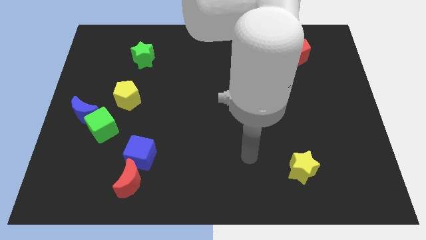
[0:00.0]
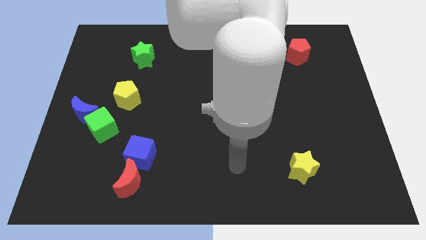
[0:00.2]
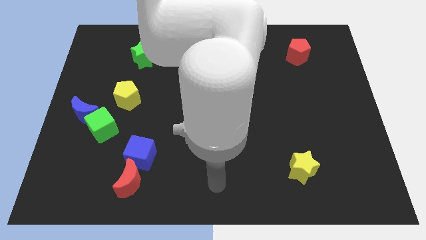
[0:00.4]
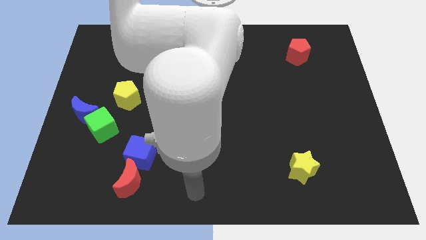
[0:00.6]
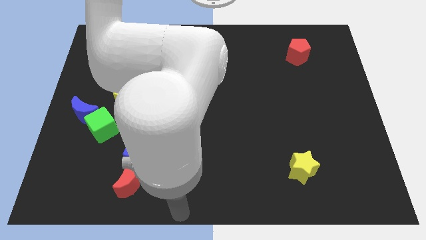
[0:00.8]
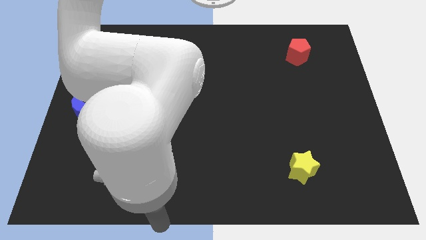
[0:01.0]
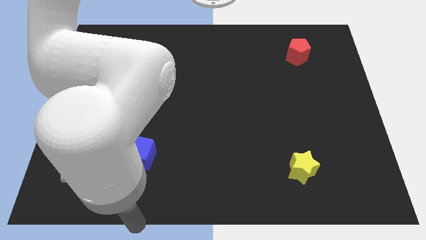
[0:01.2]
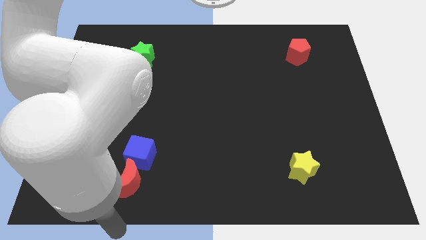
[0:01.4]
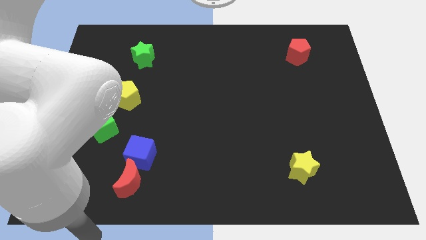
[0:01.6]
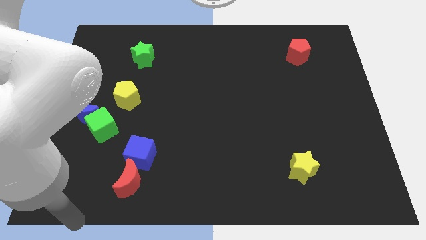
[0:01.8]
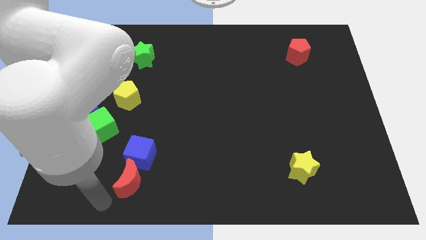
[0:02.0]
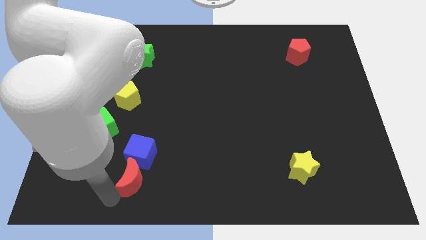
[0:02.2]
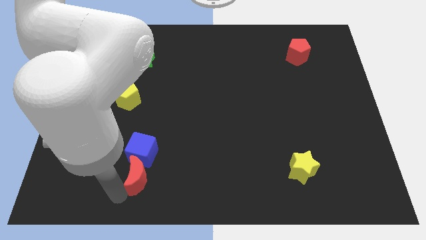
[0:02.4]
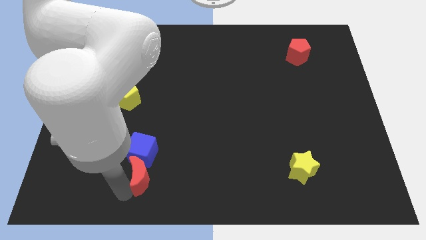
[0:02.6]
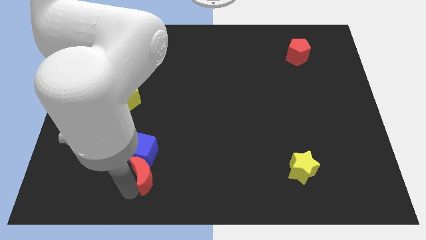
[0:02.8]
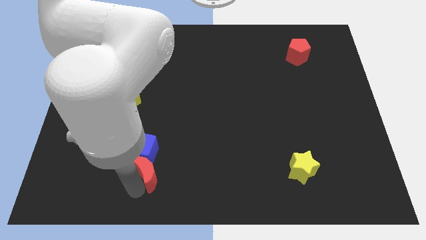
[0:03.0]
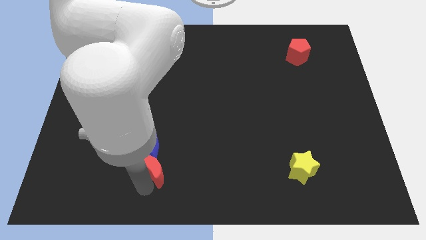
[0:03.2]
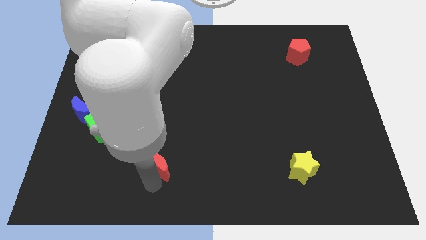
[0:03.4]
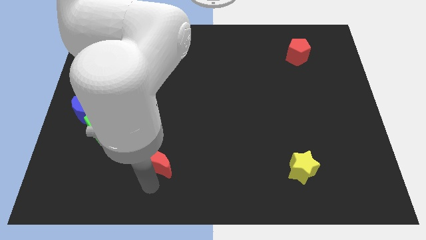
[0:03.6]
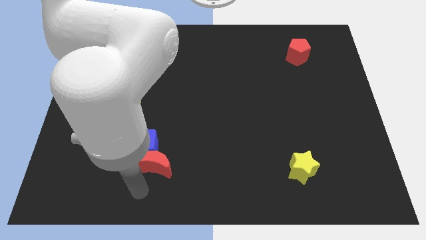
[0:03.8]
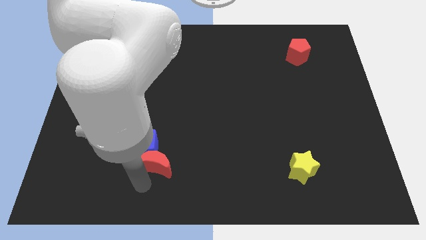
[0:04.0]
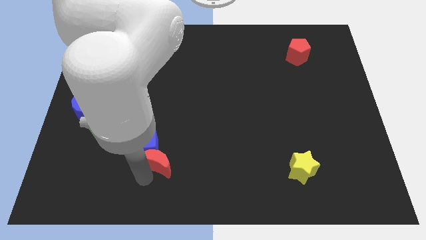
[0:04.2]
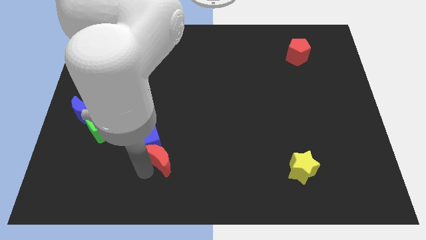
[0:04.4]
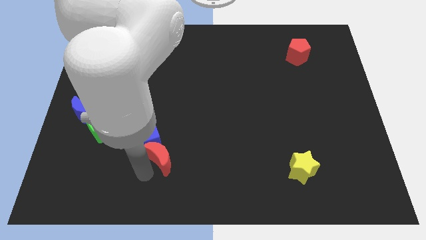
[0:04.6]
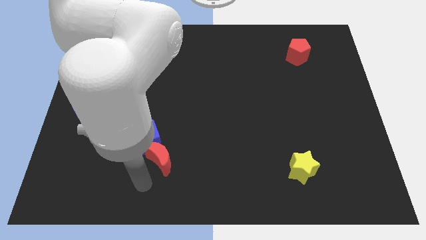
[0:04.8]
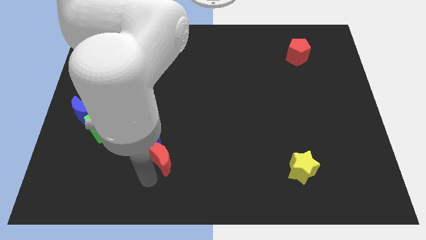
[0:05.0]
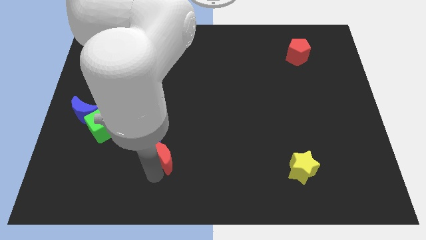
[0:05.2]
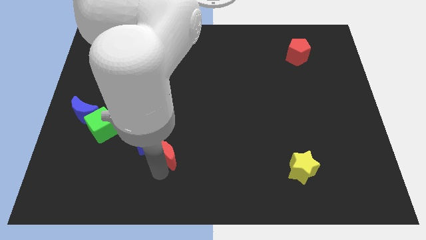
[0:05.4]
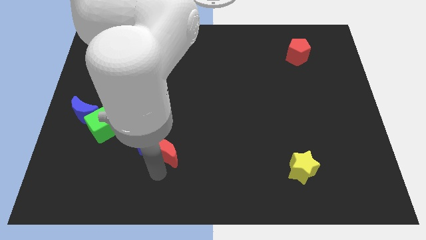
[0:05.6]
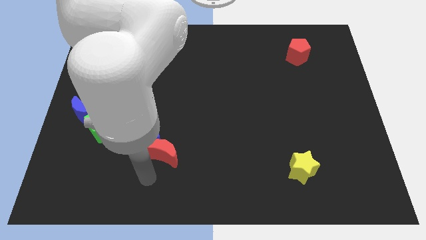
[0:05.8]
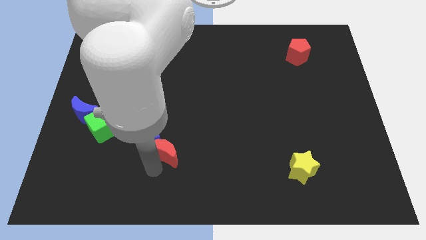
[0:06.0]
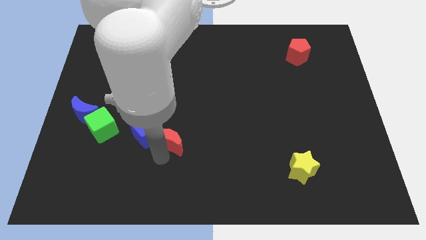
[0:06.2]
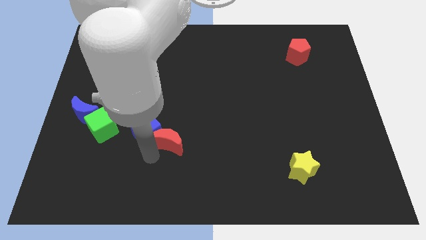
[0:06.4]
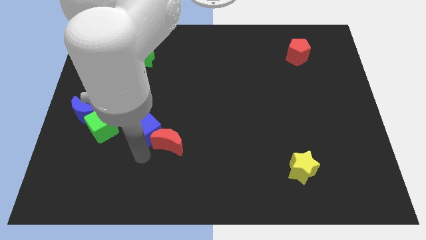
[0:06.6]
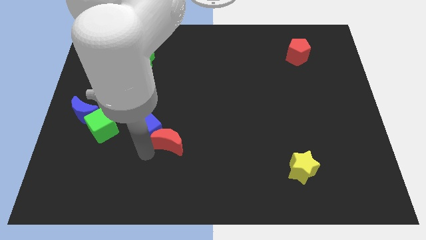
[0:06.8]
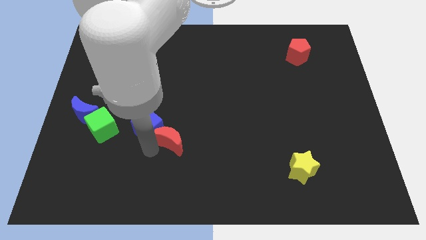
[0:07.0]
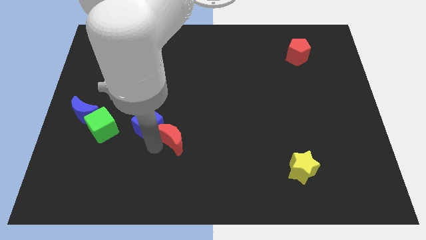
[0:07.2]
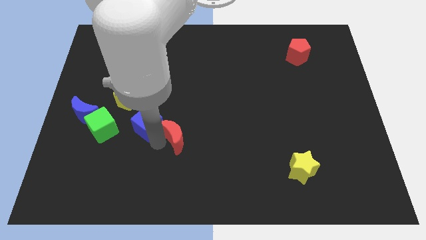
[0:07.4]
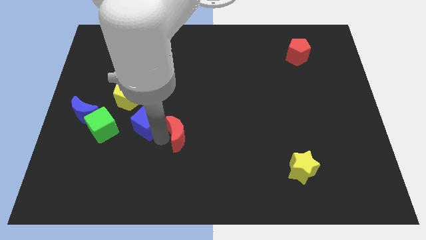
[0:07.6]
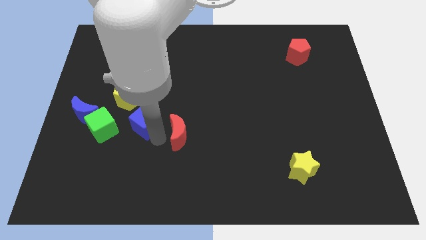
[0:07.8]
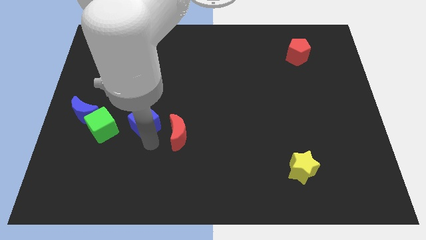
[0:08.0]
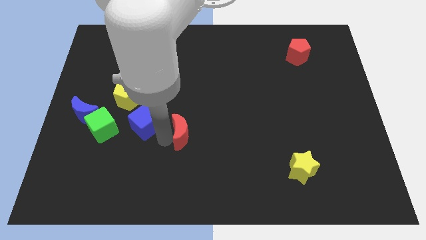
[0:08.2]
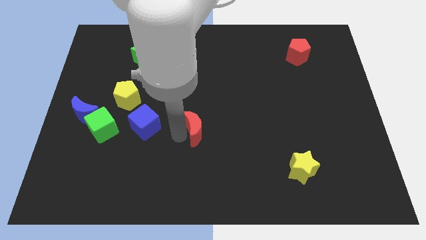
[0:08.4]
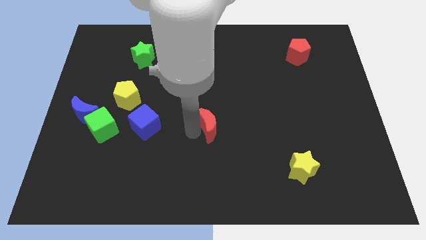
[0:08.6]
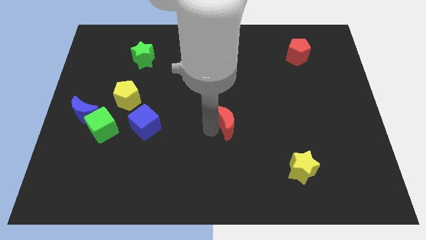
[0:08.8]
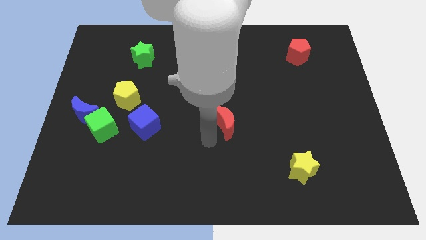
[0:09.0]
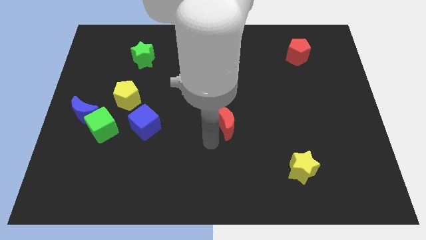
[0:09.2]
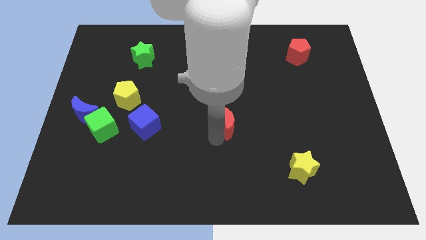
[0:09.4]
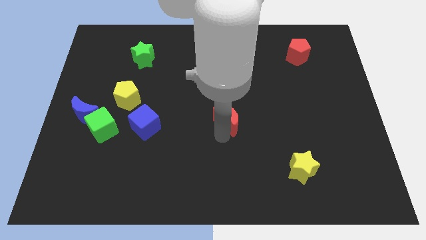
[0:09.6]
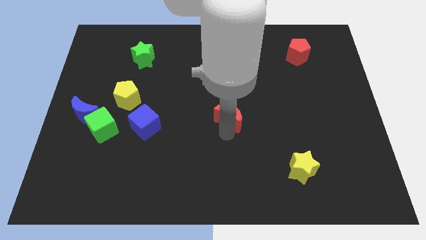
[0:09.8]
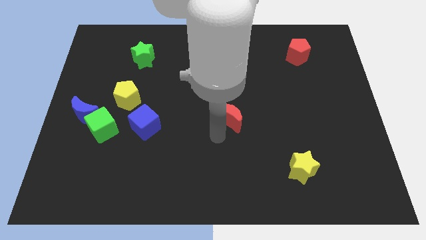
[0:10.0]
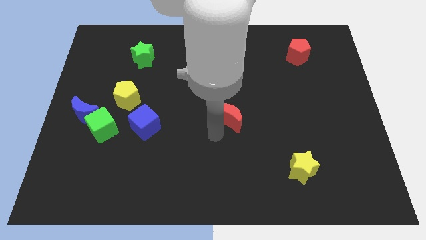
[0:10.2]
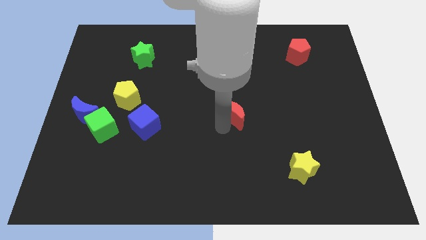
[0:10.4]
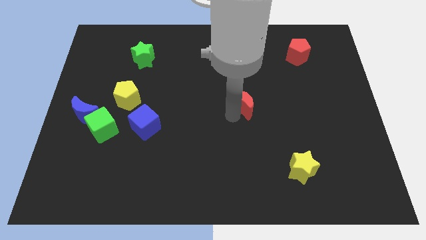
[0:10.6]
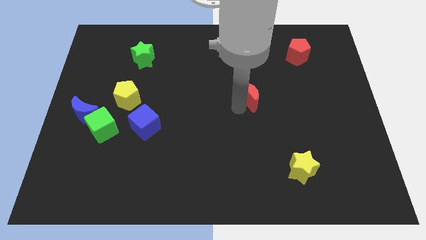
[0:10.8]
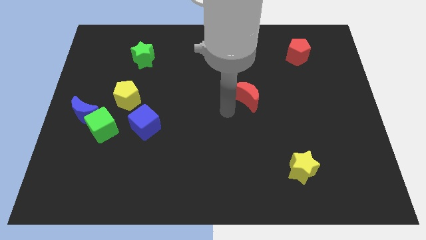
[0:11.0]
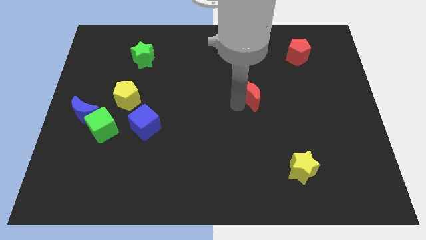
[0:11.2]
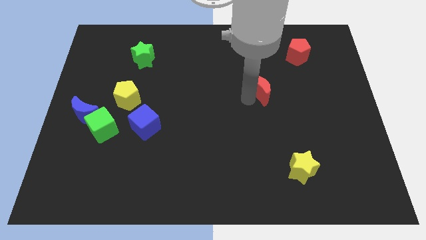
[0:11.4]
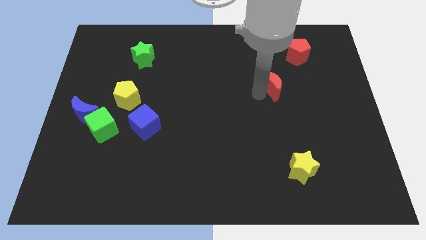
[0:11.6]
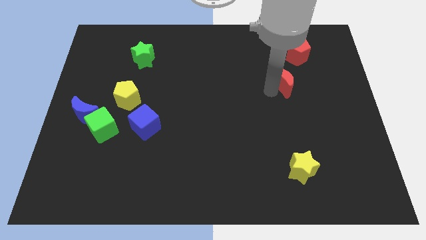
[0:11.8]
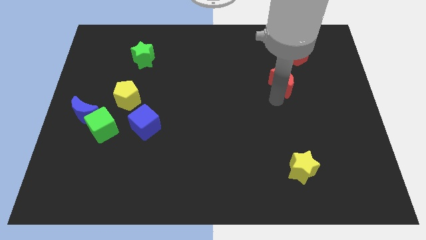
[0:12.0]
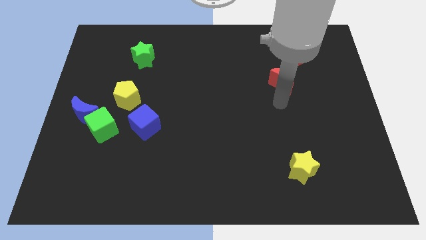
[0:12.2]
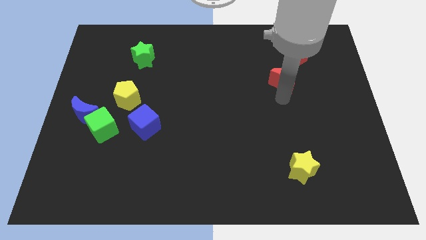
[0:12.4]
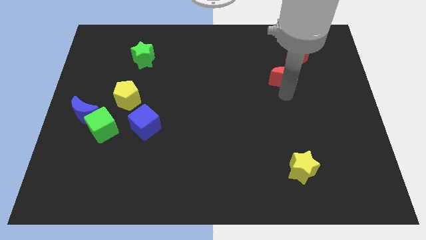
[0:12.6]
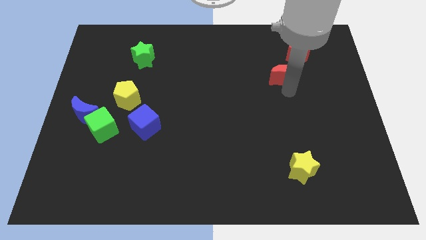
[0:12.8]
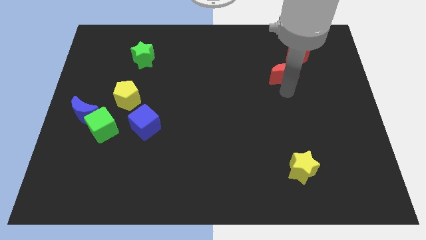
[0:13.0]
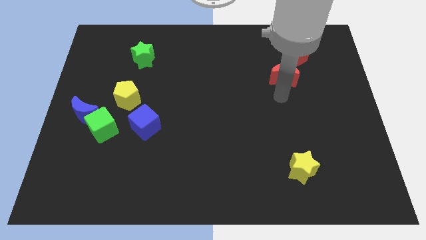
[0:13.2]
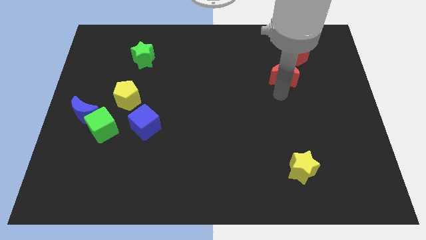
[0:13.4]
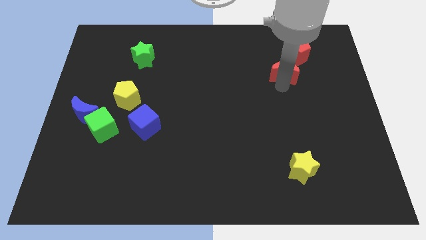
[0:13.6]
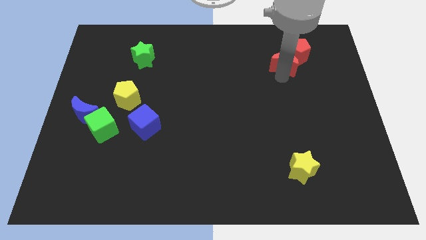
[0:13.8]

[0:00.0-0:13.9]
push the red moon towards the red pentagon

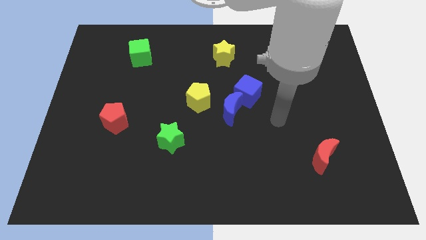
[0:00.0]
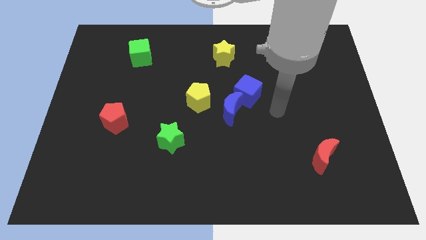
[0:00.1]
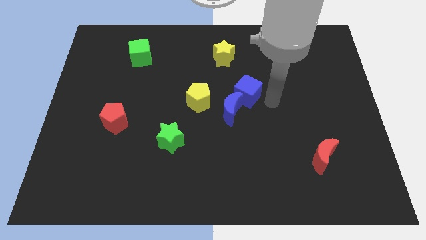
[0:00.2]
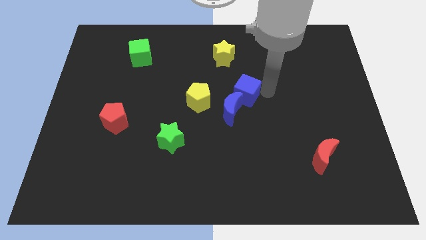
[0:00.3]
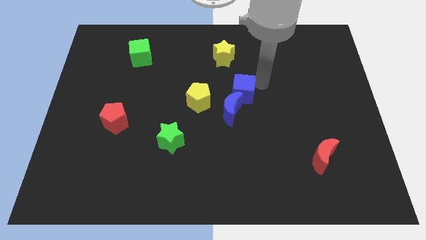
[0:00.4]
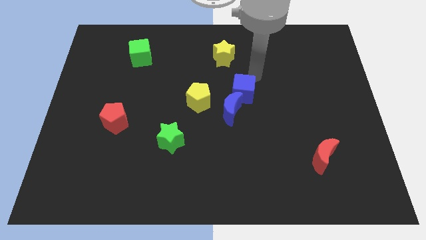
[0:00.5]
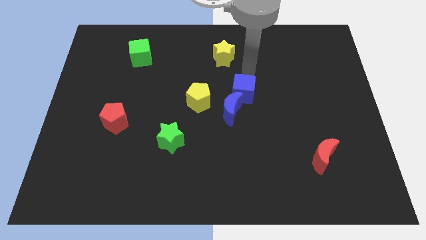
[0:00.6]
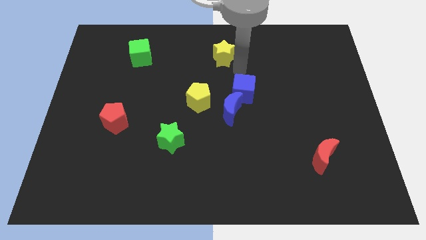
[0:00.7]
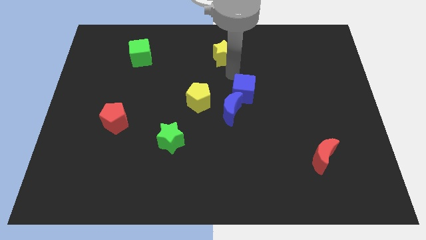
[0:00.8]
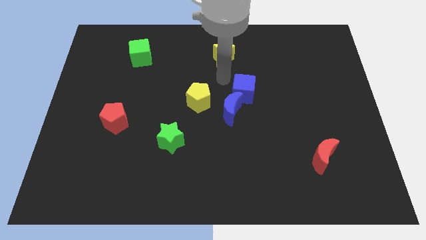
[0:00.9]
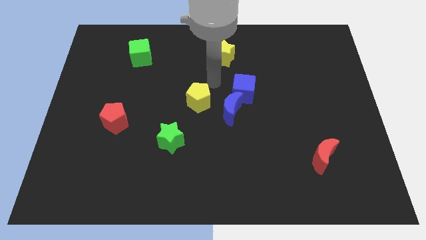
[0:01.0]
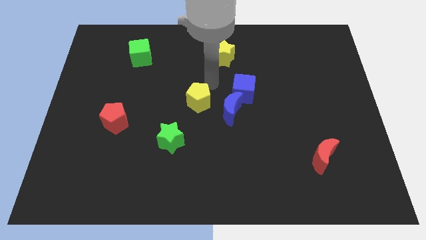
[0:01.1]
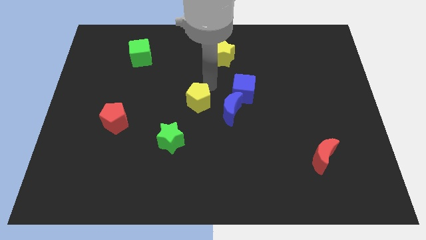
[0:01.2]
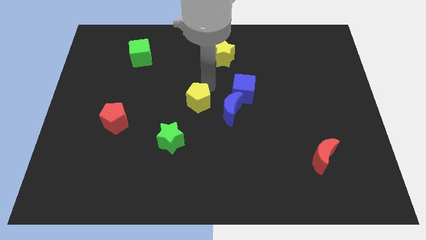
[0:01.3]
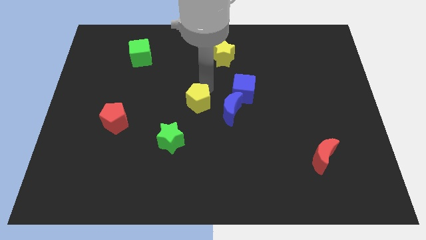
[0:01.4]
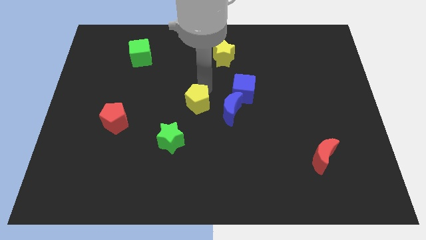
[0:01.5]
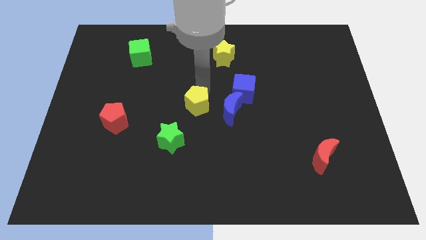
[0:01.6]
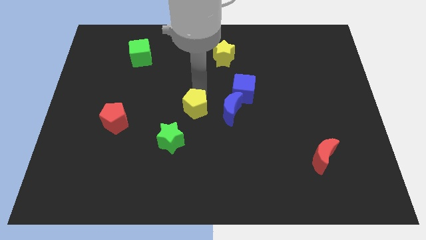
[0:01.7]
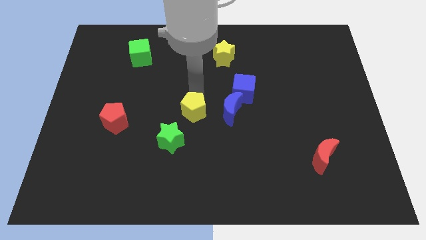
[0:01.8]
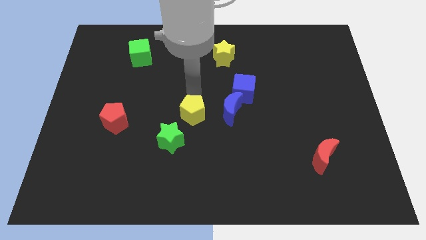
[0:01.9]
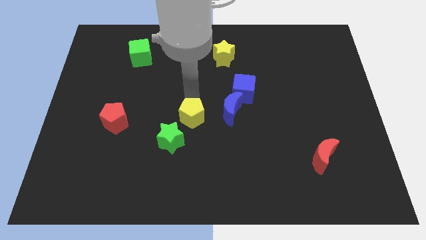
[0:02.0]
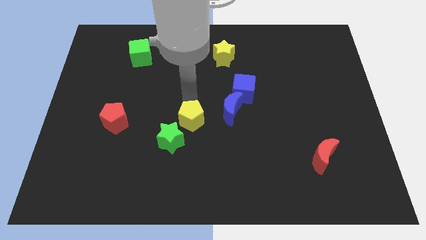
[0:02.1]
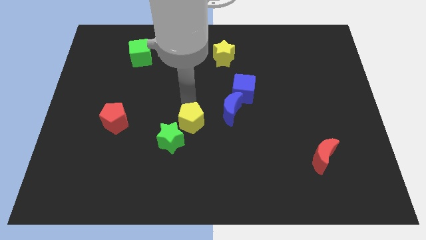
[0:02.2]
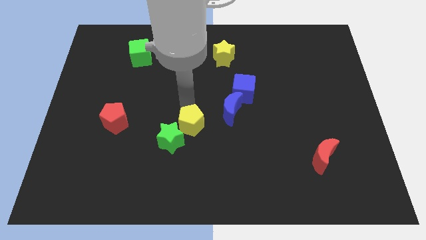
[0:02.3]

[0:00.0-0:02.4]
put the yellow pentagon next to the green star
